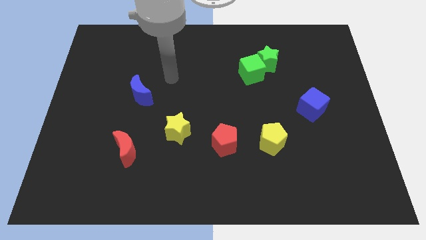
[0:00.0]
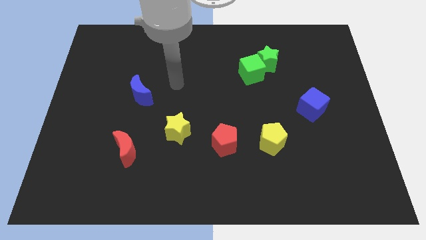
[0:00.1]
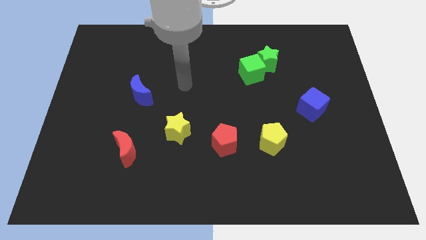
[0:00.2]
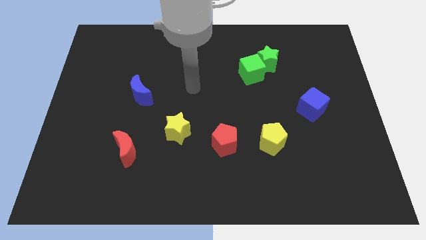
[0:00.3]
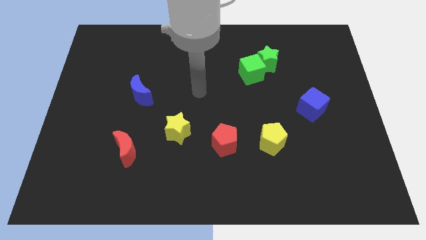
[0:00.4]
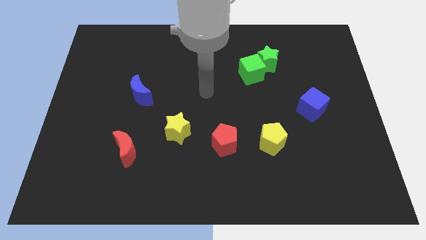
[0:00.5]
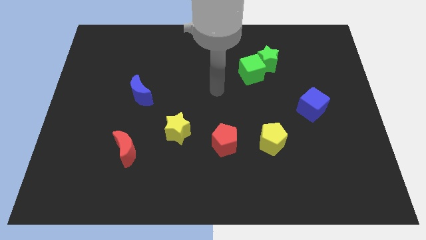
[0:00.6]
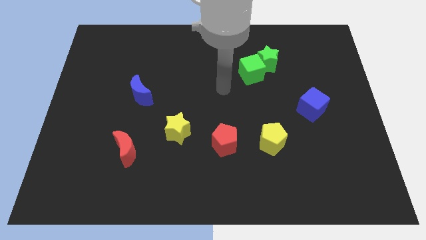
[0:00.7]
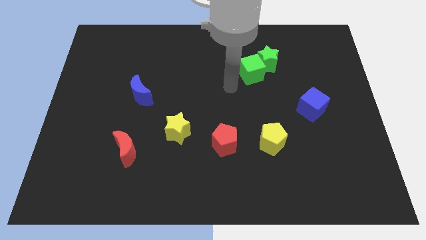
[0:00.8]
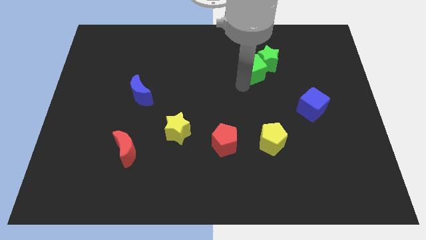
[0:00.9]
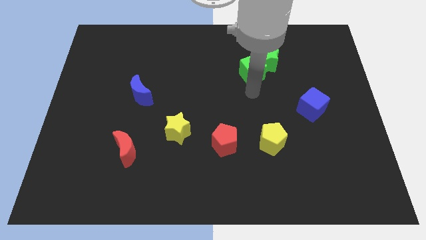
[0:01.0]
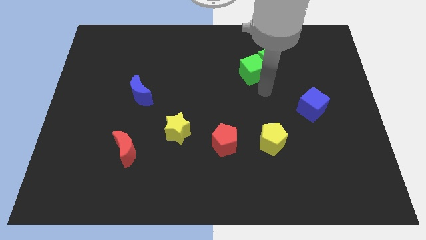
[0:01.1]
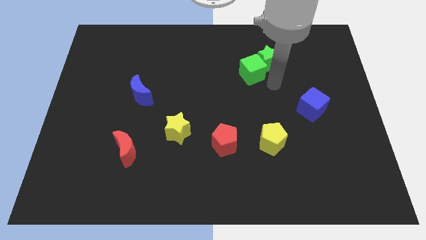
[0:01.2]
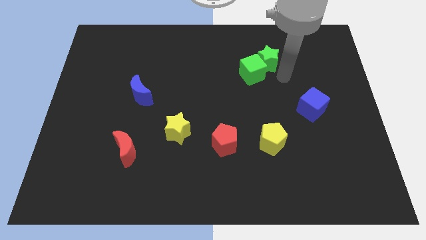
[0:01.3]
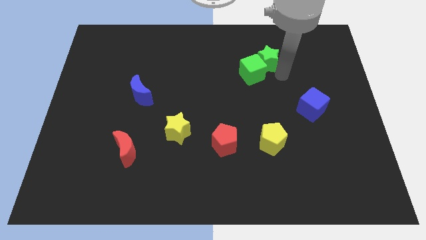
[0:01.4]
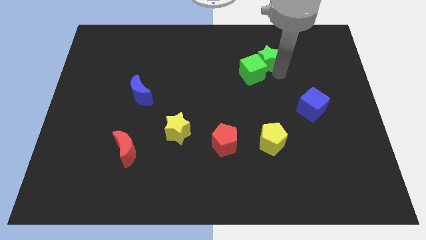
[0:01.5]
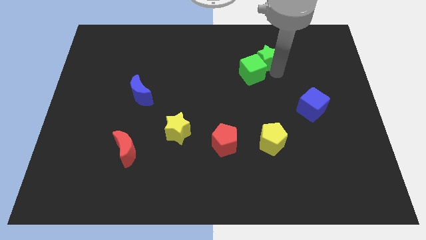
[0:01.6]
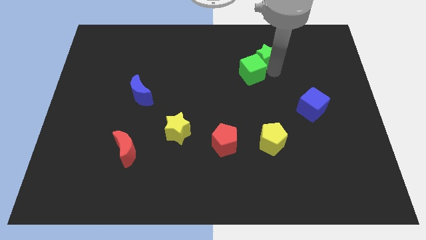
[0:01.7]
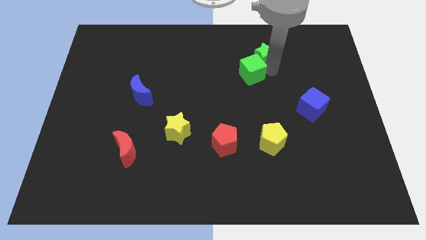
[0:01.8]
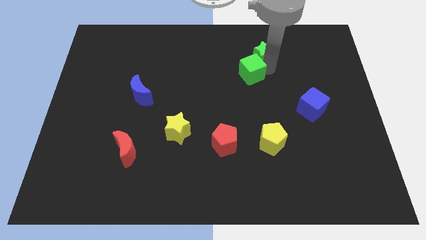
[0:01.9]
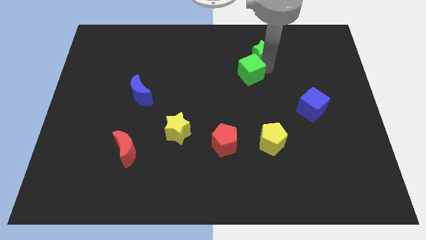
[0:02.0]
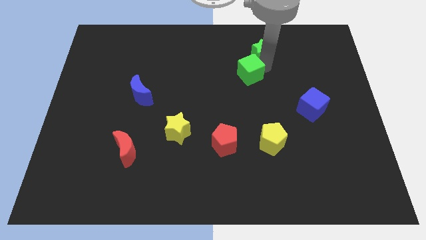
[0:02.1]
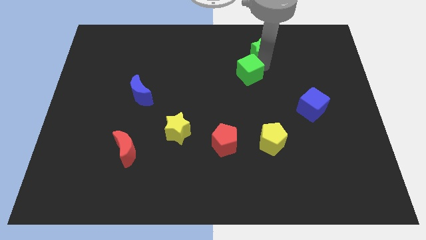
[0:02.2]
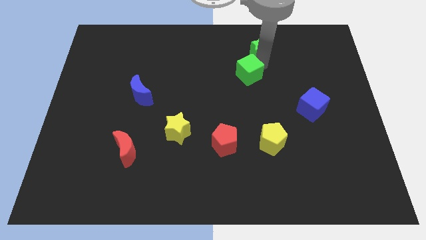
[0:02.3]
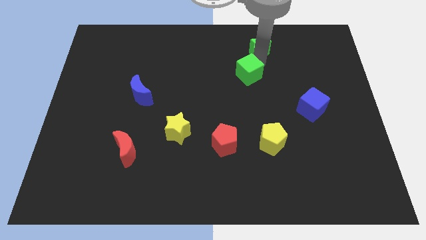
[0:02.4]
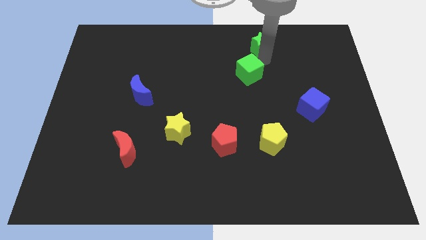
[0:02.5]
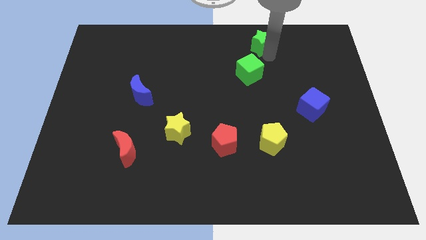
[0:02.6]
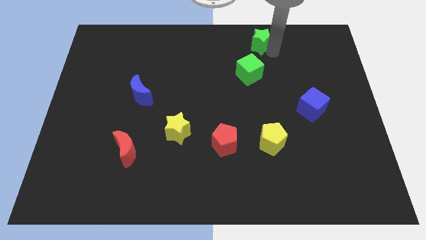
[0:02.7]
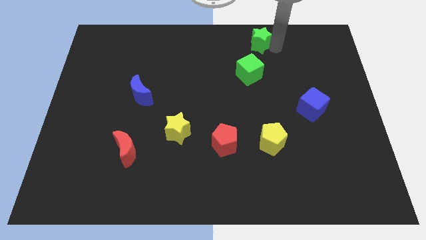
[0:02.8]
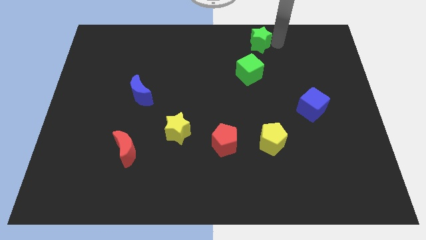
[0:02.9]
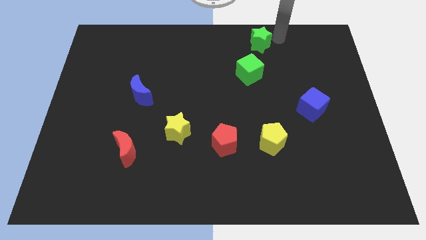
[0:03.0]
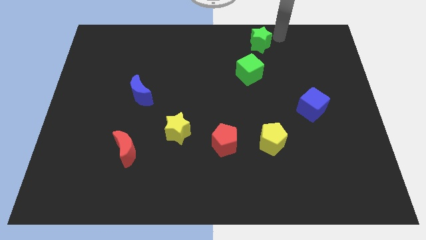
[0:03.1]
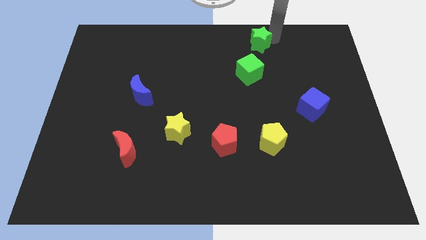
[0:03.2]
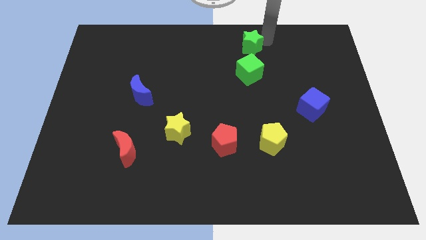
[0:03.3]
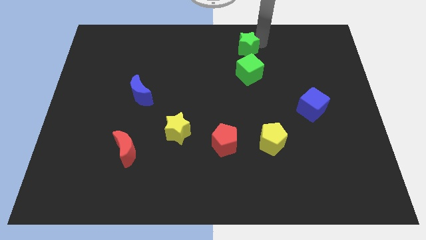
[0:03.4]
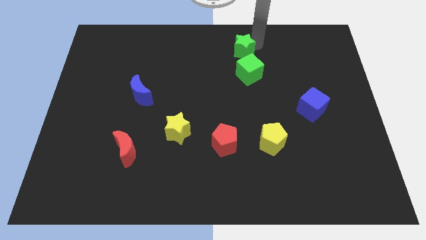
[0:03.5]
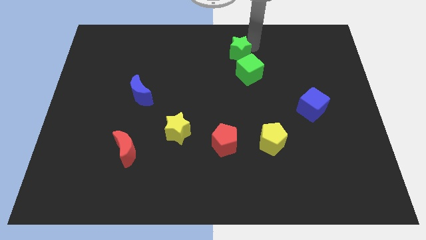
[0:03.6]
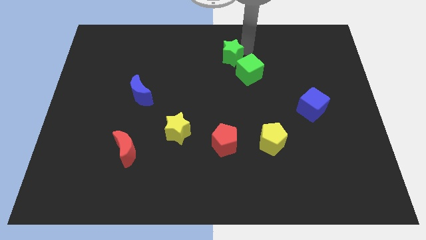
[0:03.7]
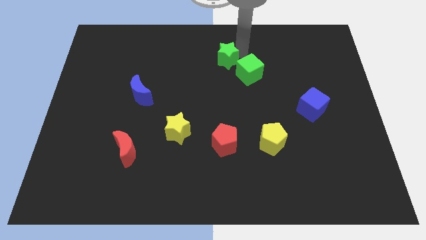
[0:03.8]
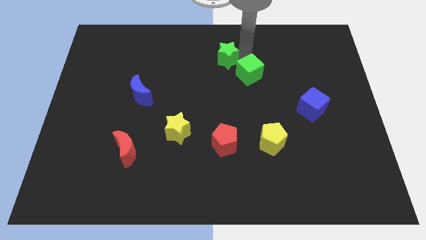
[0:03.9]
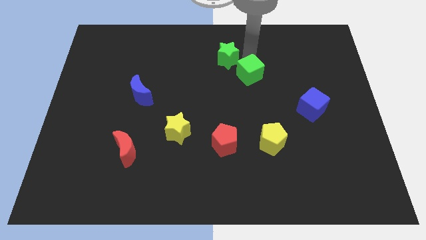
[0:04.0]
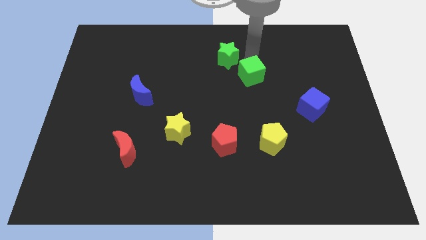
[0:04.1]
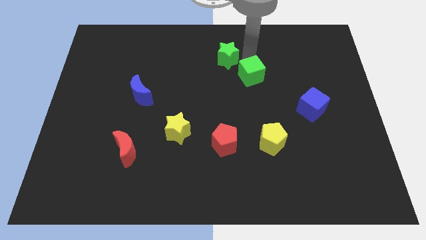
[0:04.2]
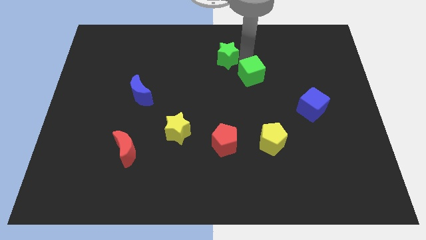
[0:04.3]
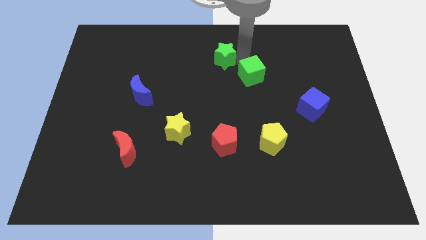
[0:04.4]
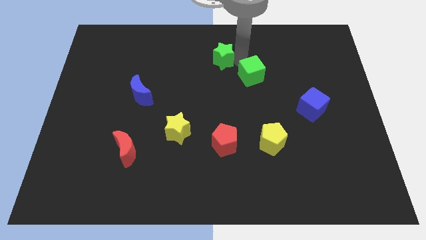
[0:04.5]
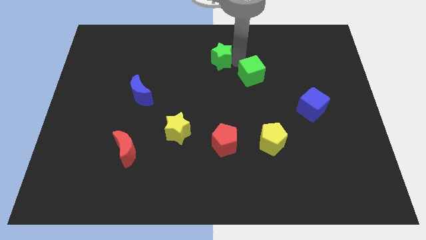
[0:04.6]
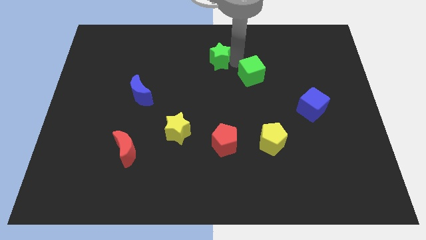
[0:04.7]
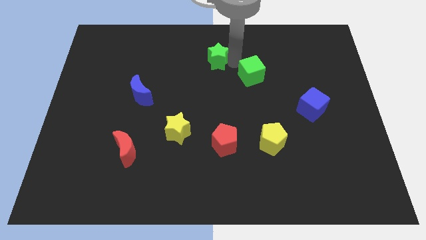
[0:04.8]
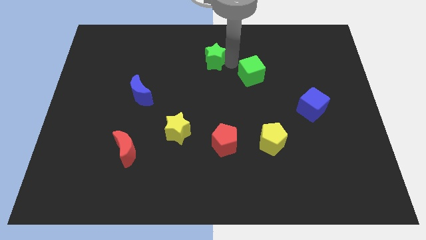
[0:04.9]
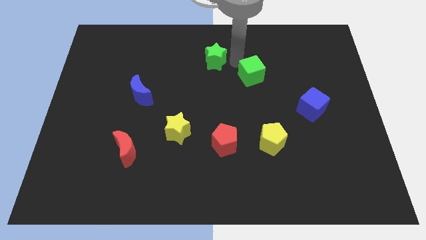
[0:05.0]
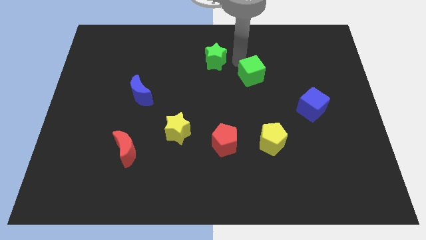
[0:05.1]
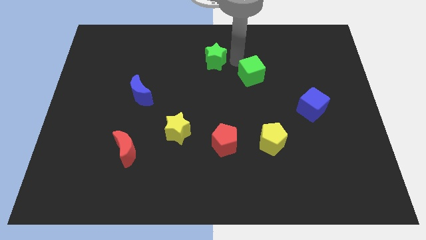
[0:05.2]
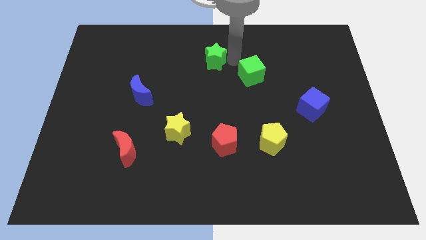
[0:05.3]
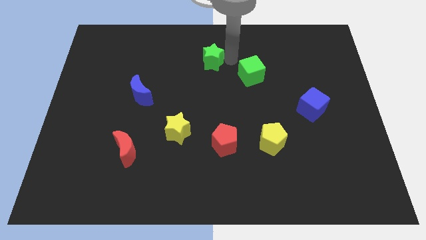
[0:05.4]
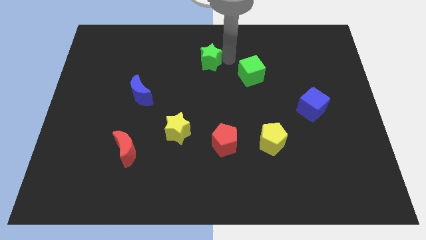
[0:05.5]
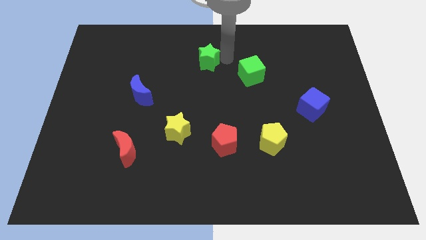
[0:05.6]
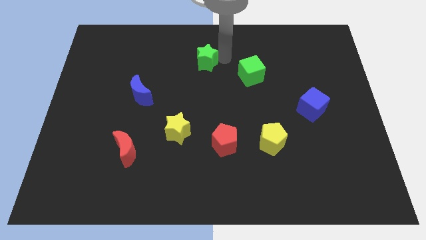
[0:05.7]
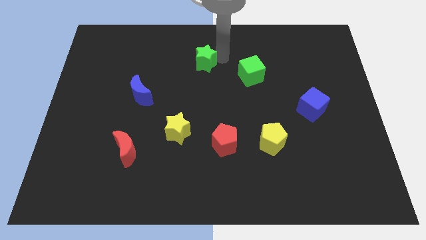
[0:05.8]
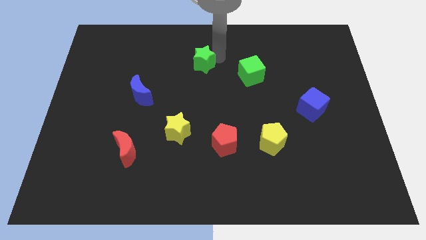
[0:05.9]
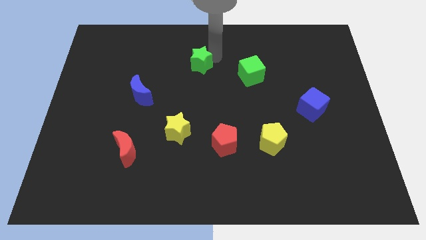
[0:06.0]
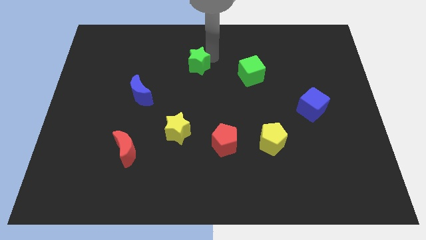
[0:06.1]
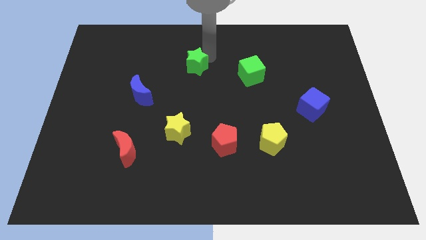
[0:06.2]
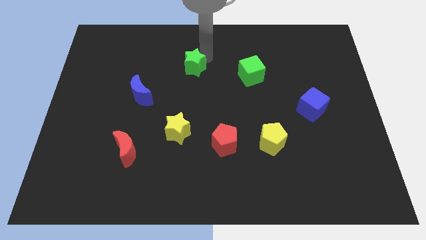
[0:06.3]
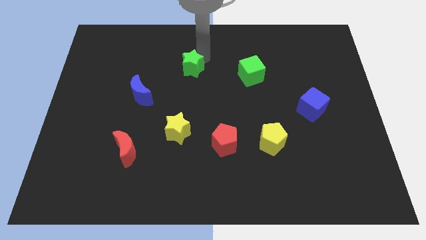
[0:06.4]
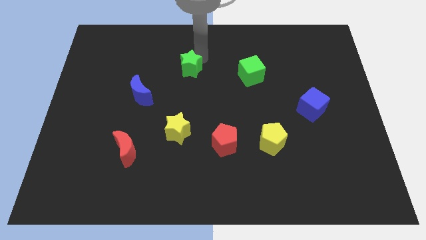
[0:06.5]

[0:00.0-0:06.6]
move the green star to the left

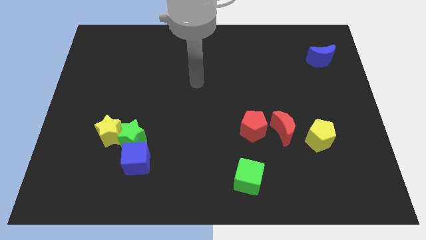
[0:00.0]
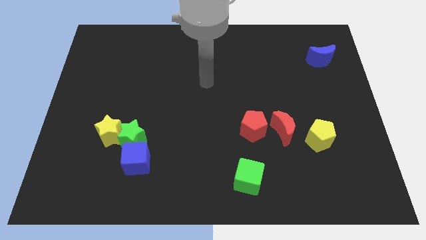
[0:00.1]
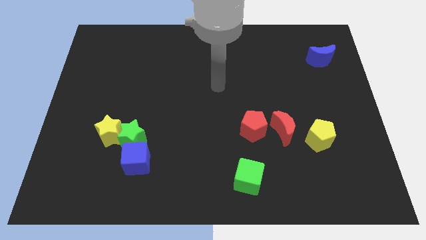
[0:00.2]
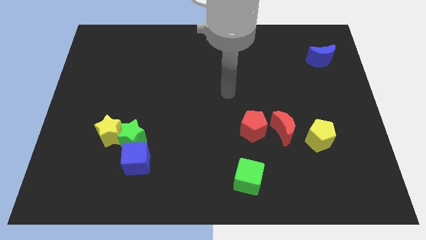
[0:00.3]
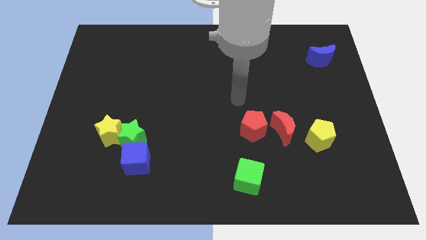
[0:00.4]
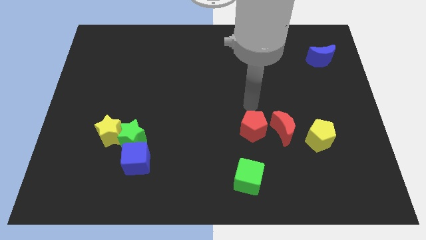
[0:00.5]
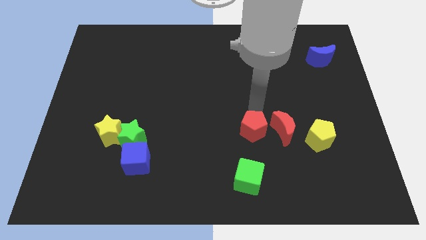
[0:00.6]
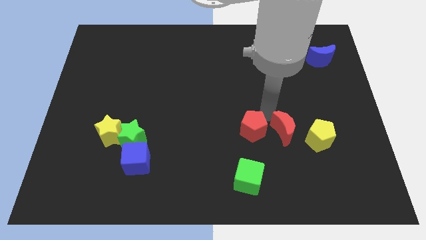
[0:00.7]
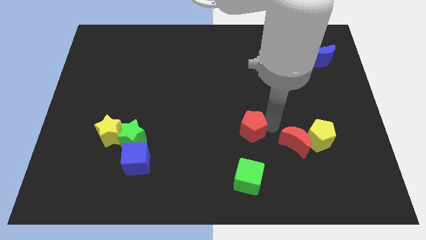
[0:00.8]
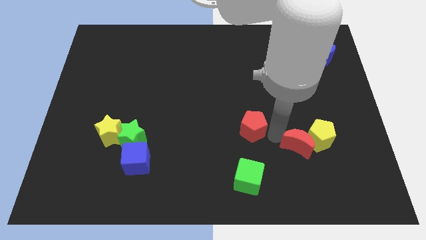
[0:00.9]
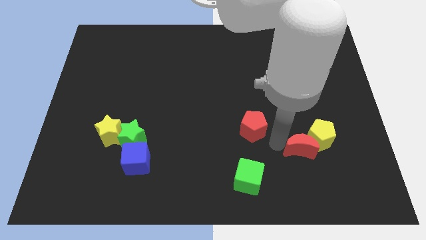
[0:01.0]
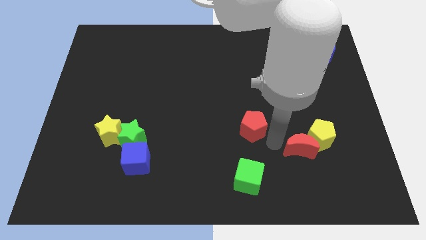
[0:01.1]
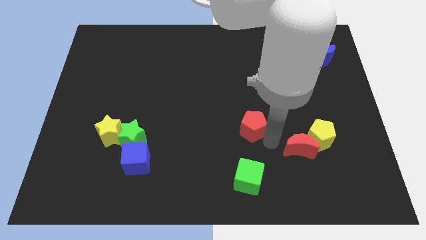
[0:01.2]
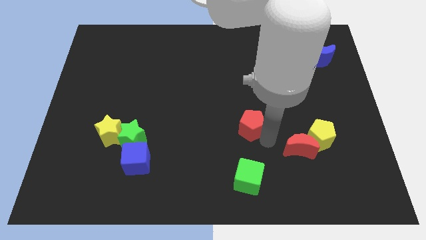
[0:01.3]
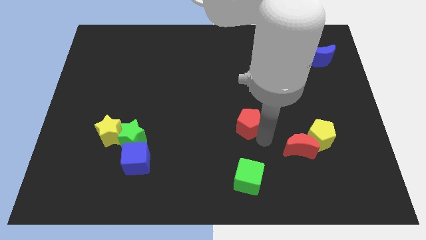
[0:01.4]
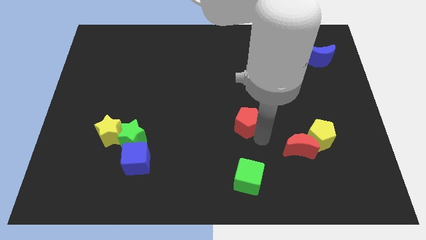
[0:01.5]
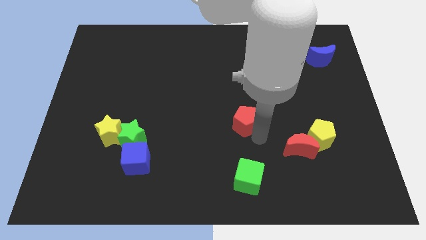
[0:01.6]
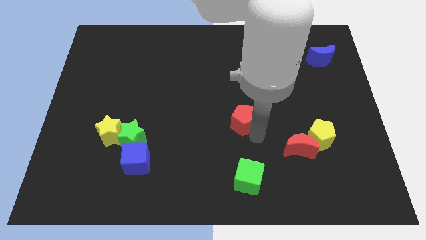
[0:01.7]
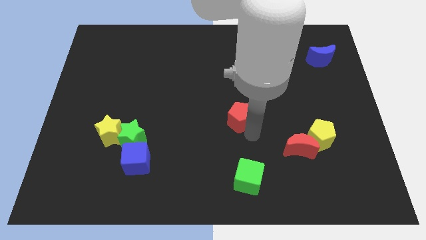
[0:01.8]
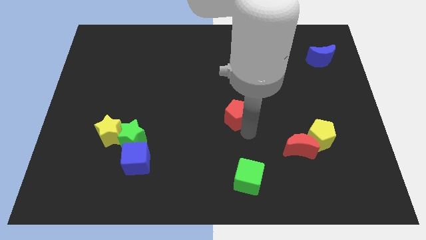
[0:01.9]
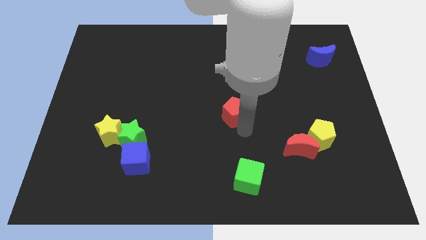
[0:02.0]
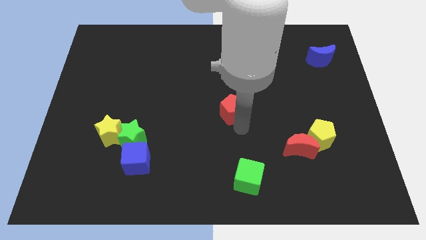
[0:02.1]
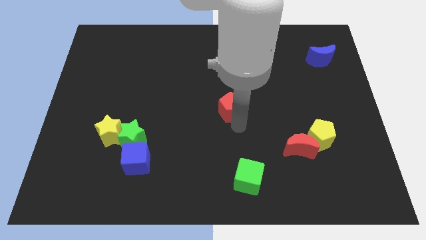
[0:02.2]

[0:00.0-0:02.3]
slightly slide the red pentagon up and then left
